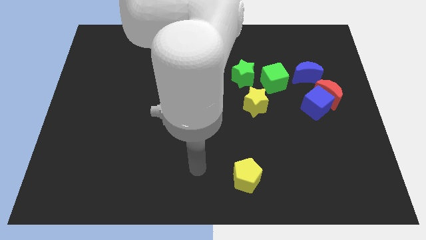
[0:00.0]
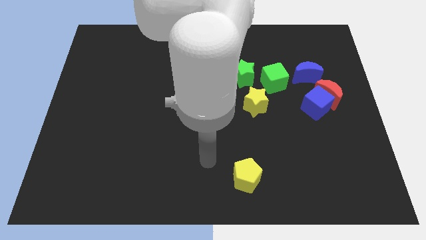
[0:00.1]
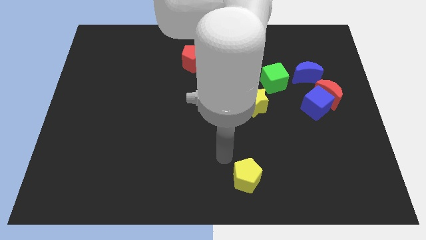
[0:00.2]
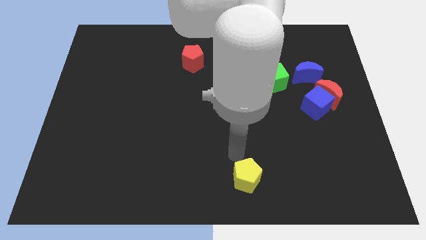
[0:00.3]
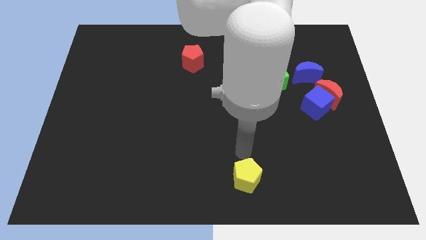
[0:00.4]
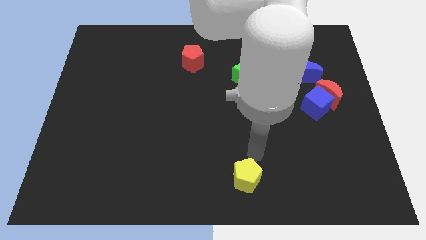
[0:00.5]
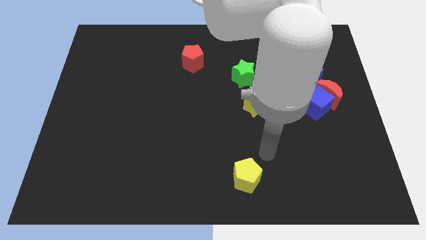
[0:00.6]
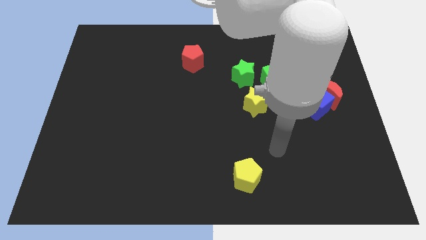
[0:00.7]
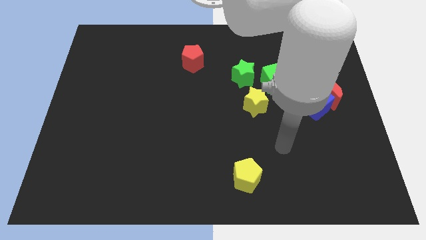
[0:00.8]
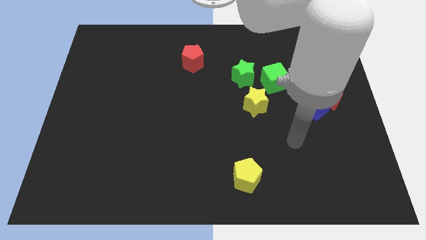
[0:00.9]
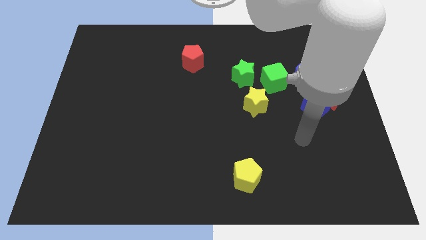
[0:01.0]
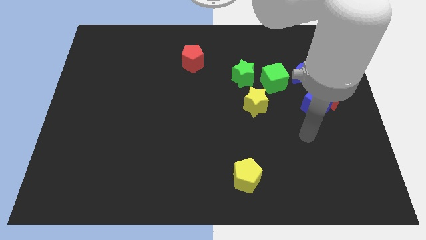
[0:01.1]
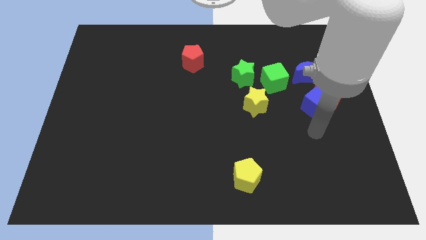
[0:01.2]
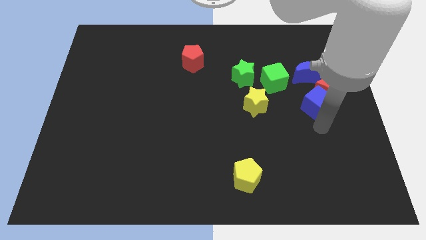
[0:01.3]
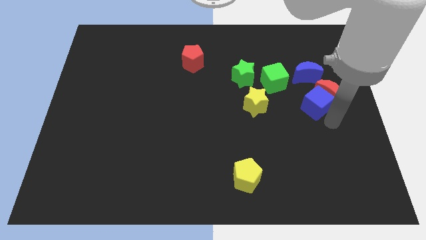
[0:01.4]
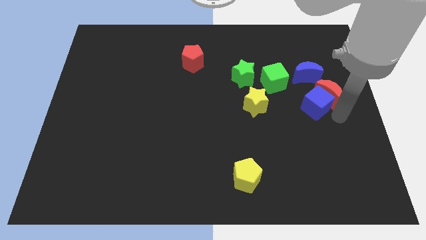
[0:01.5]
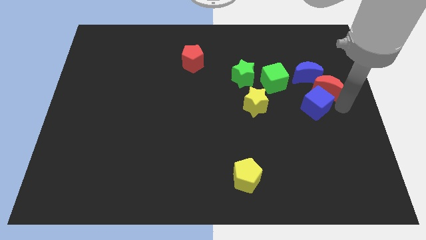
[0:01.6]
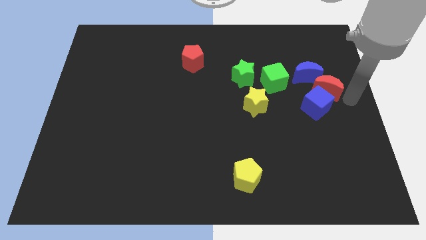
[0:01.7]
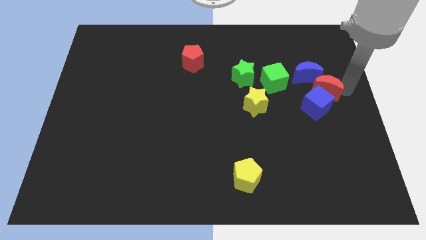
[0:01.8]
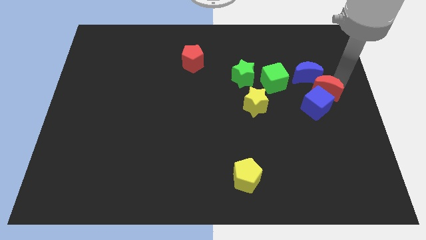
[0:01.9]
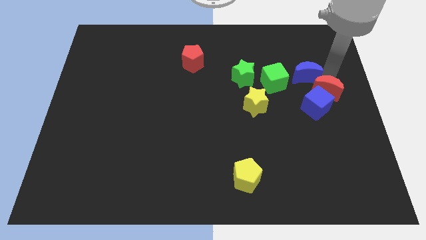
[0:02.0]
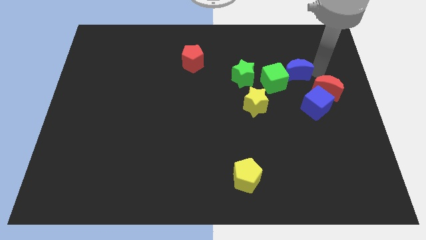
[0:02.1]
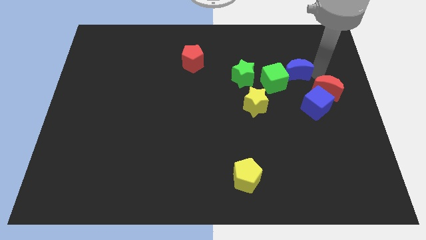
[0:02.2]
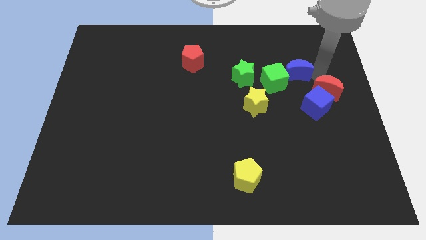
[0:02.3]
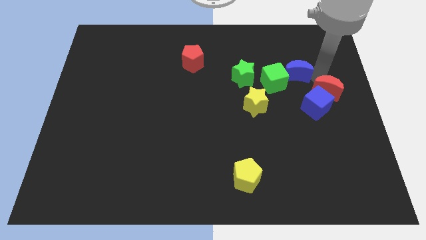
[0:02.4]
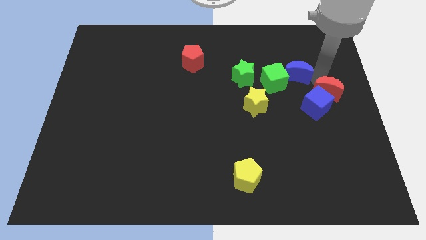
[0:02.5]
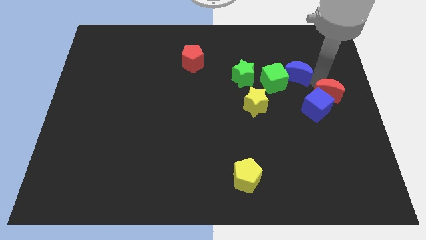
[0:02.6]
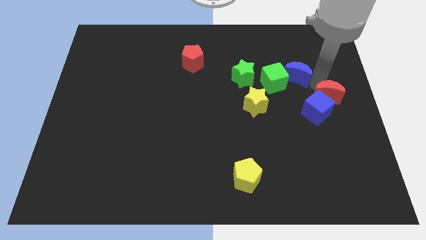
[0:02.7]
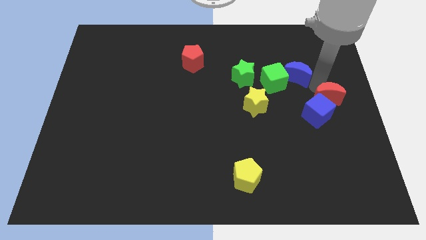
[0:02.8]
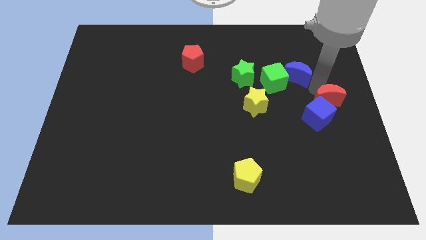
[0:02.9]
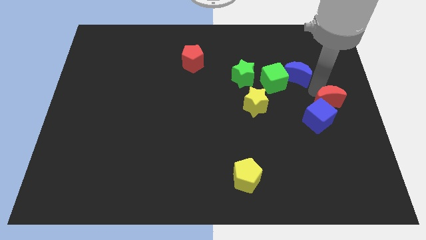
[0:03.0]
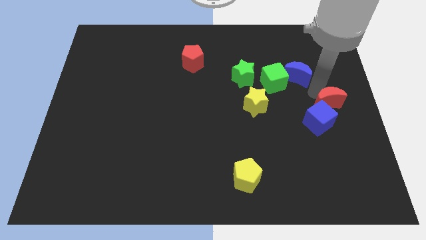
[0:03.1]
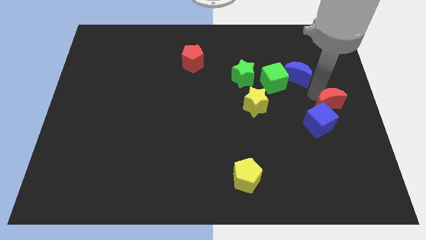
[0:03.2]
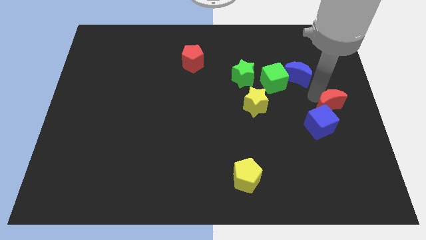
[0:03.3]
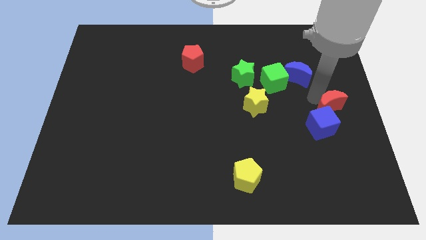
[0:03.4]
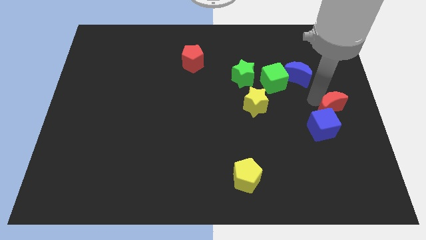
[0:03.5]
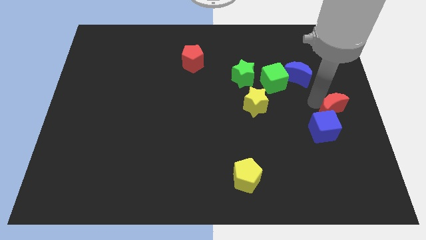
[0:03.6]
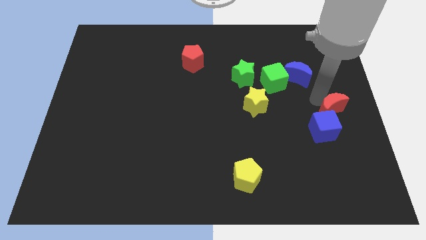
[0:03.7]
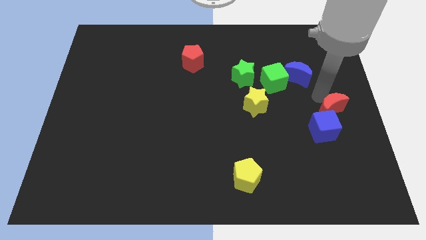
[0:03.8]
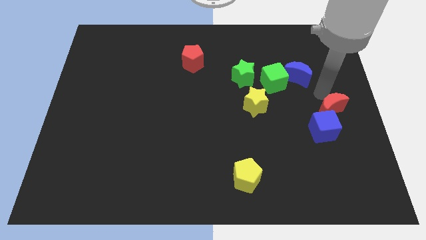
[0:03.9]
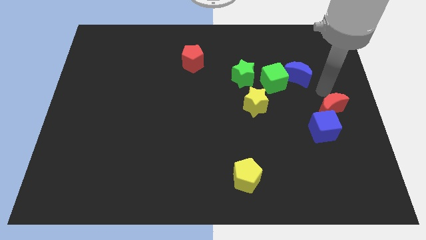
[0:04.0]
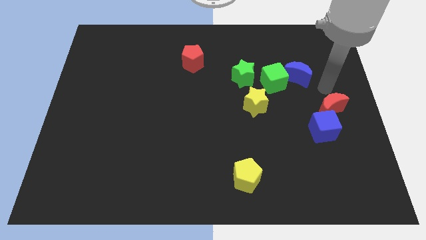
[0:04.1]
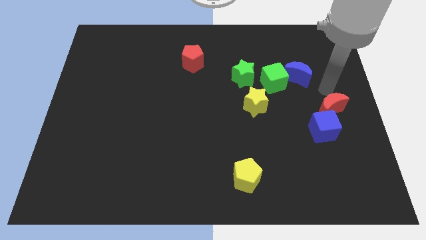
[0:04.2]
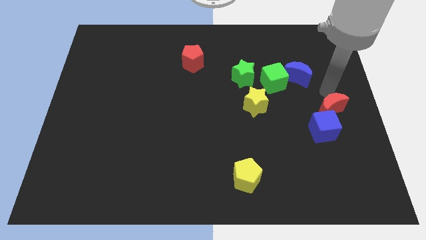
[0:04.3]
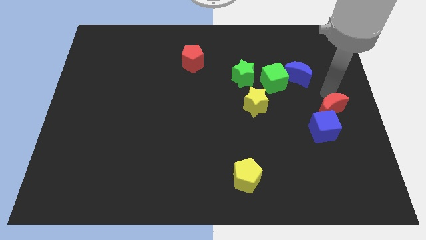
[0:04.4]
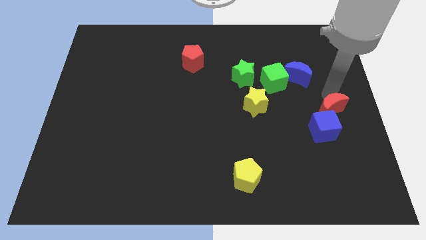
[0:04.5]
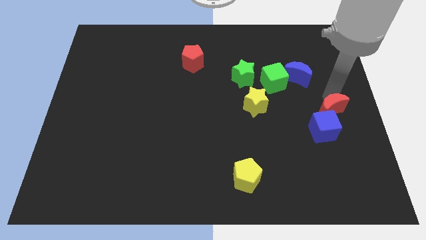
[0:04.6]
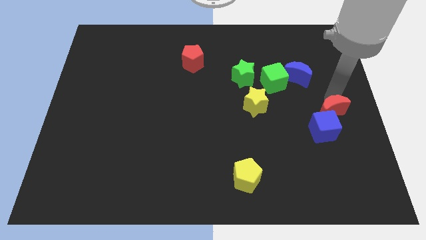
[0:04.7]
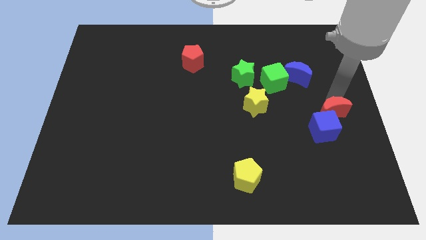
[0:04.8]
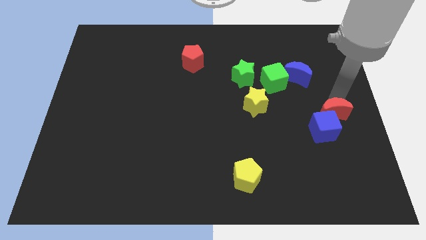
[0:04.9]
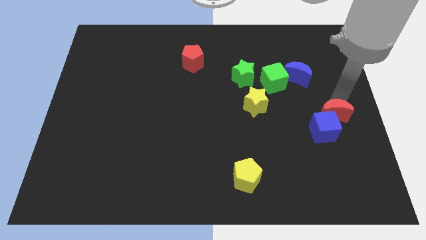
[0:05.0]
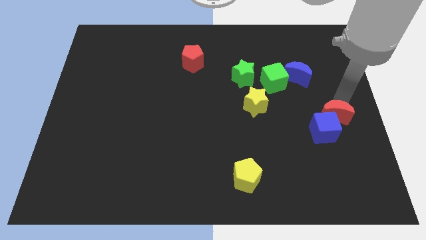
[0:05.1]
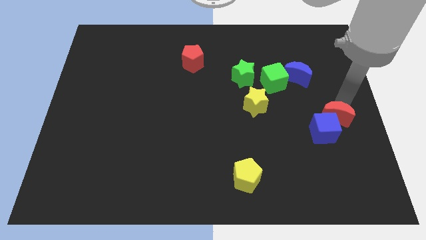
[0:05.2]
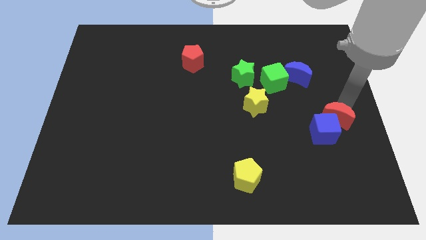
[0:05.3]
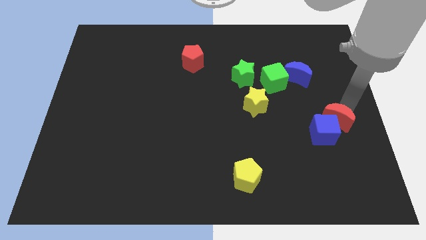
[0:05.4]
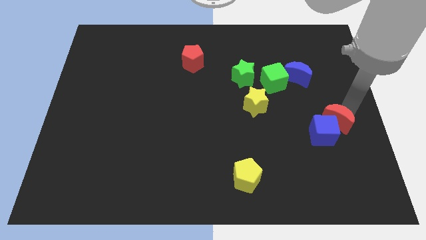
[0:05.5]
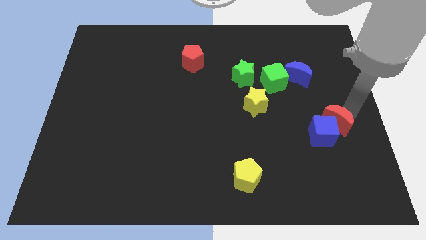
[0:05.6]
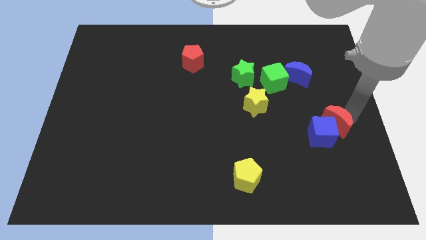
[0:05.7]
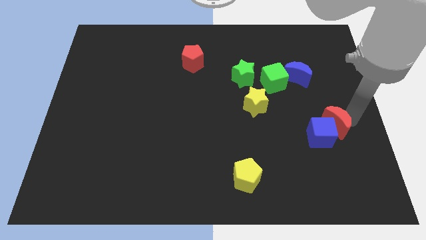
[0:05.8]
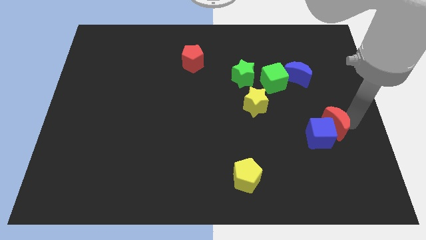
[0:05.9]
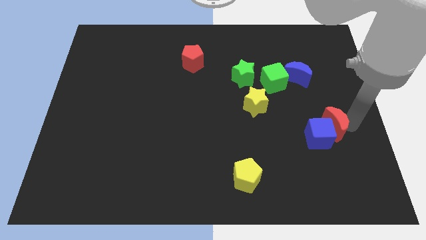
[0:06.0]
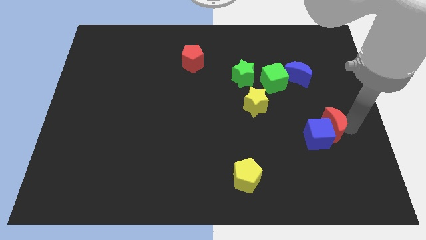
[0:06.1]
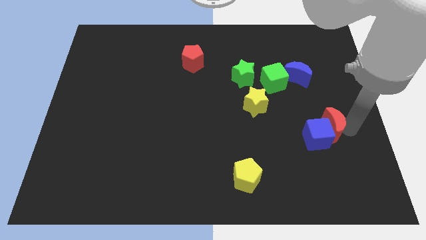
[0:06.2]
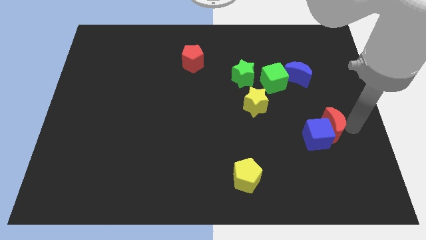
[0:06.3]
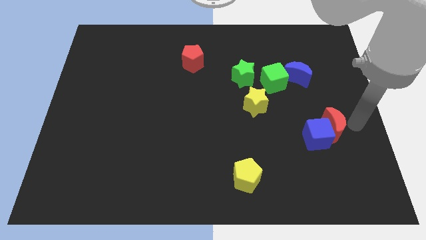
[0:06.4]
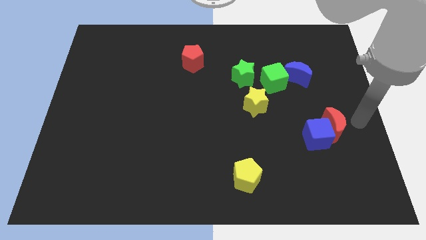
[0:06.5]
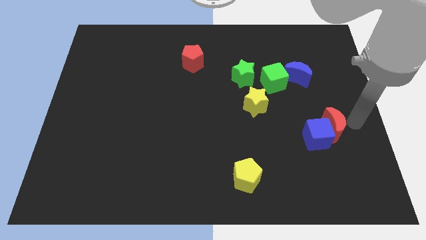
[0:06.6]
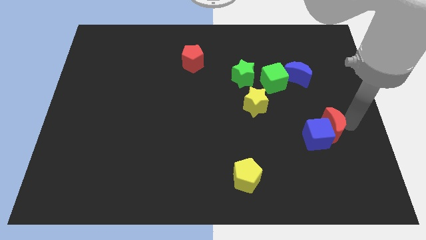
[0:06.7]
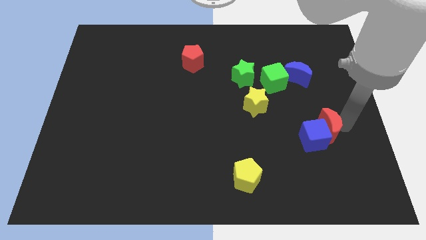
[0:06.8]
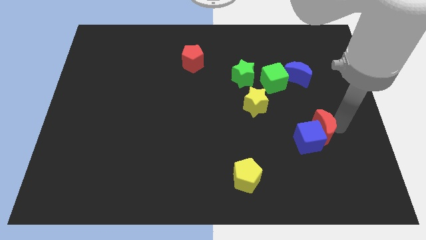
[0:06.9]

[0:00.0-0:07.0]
slide the red moon downwards and to the left a little

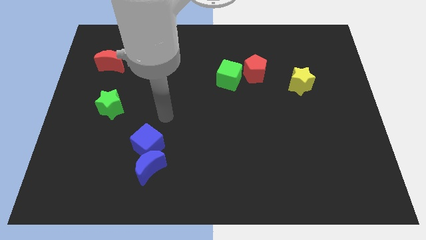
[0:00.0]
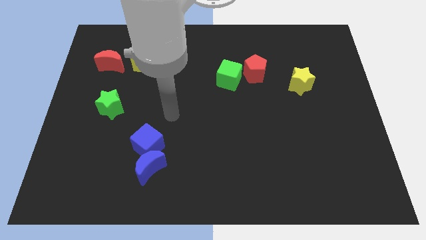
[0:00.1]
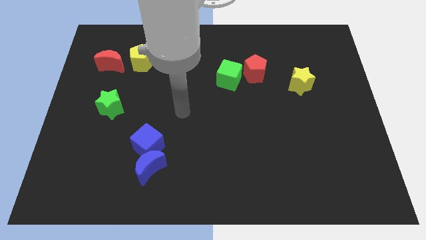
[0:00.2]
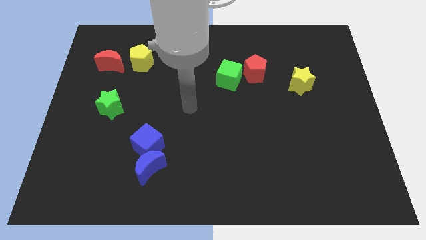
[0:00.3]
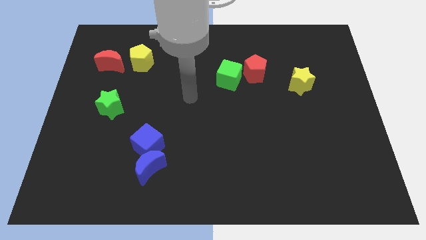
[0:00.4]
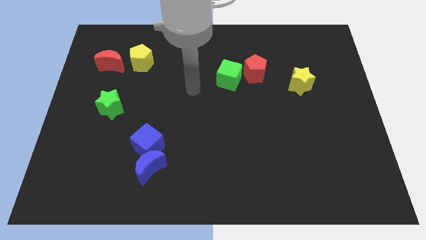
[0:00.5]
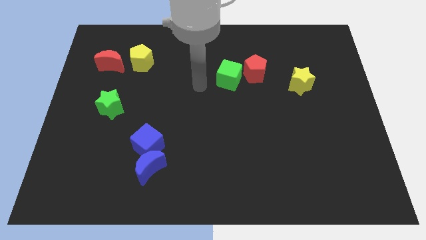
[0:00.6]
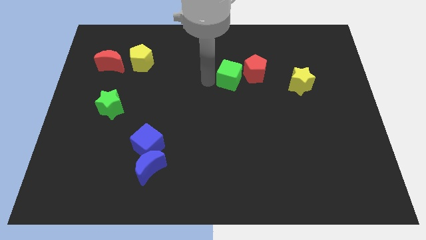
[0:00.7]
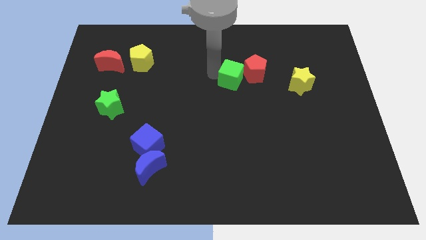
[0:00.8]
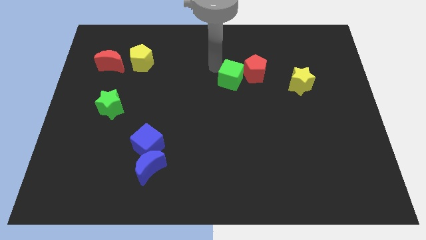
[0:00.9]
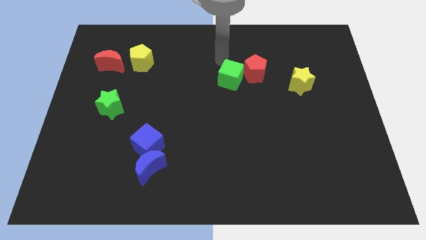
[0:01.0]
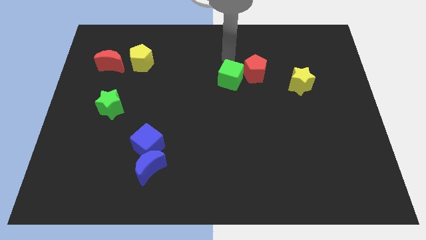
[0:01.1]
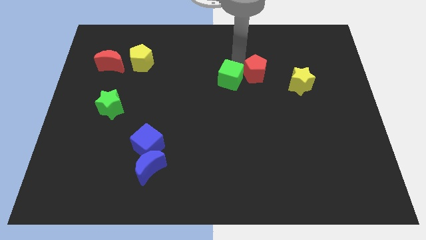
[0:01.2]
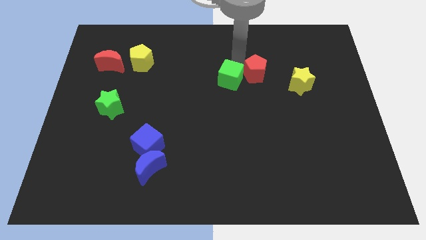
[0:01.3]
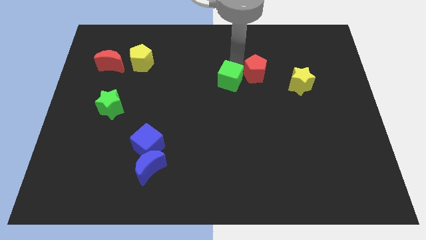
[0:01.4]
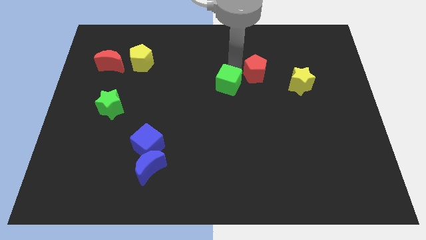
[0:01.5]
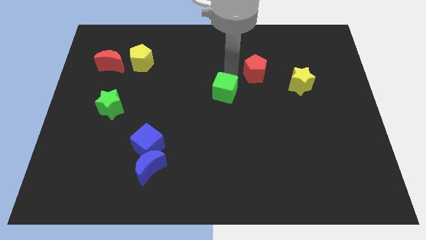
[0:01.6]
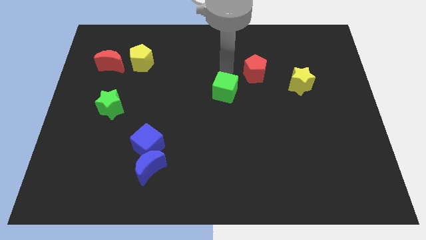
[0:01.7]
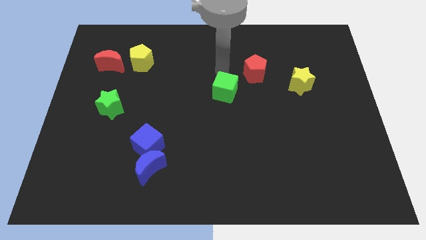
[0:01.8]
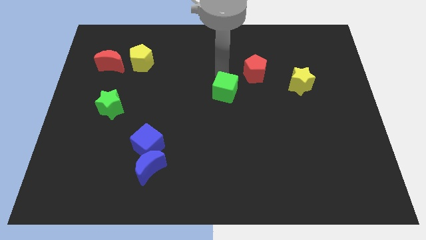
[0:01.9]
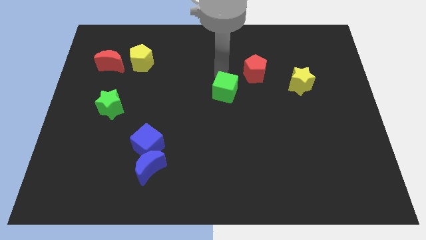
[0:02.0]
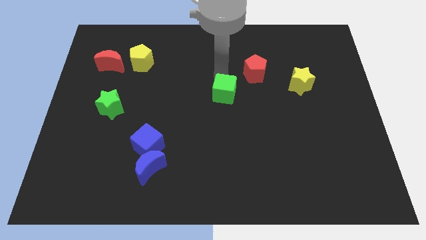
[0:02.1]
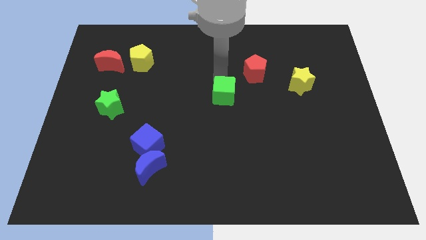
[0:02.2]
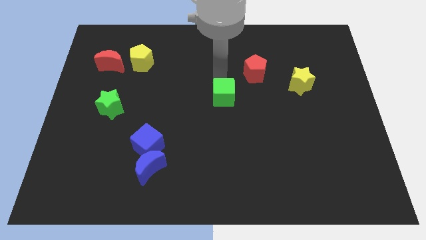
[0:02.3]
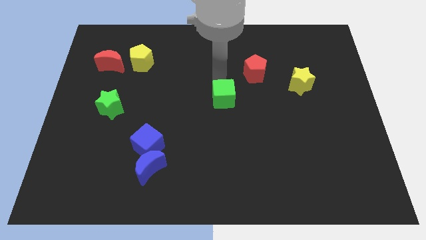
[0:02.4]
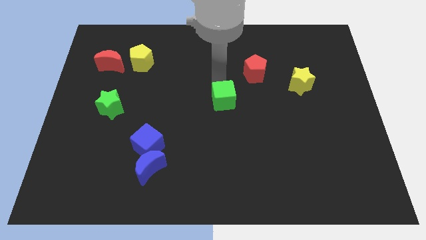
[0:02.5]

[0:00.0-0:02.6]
slightly push the green cube downwards
